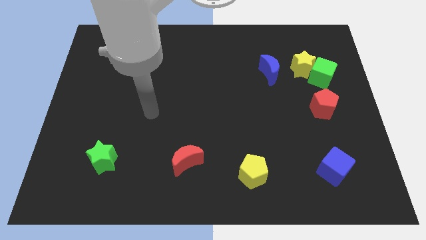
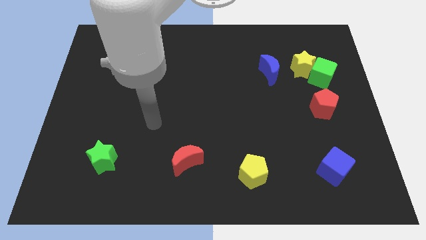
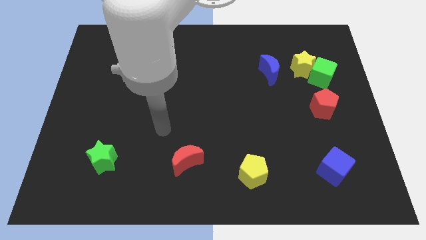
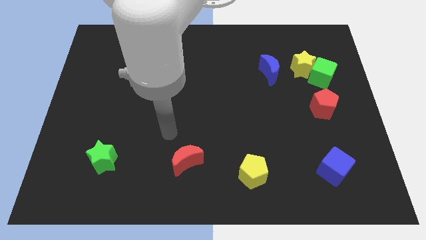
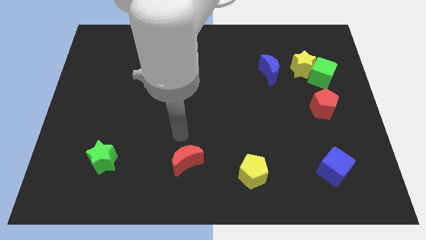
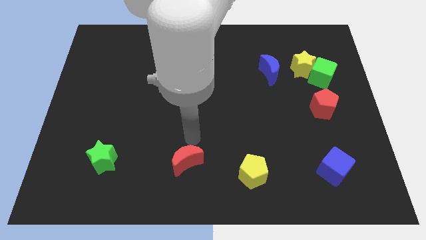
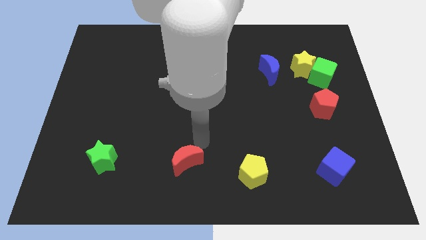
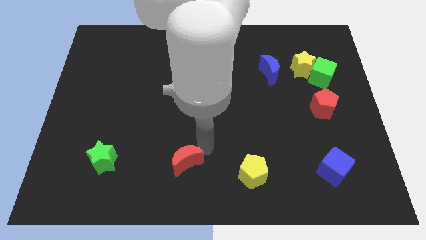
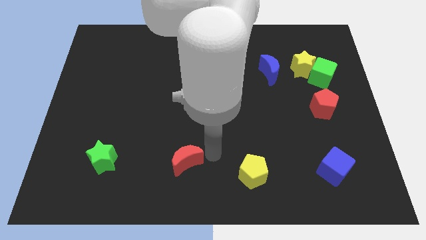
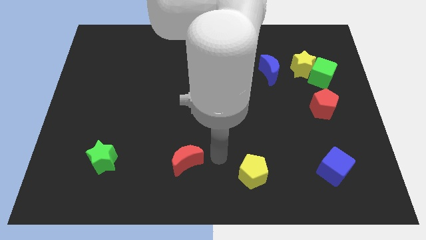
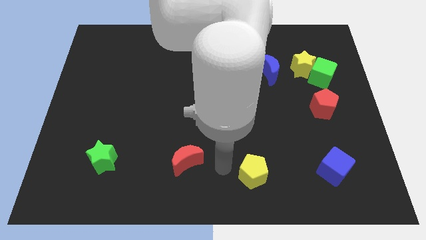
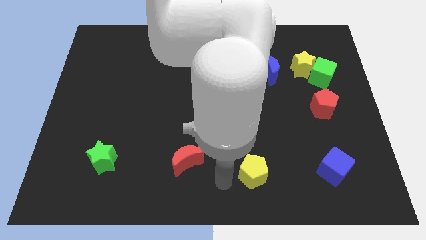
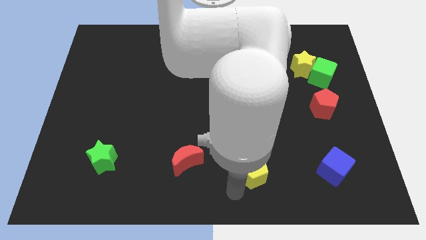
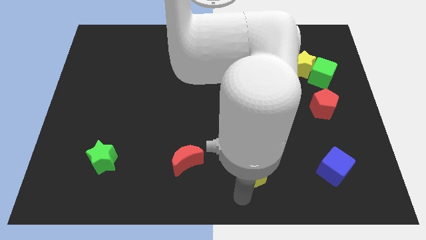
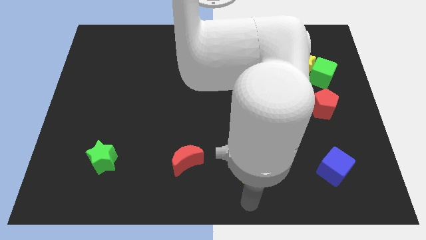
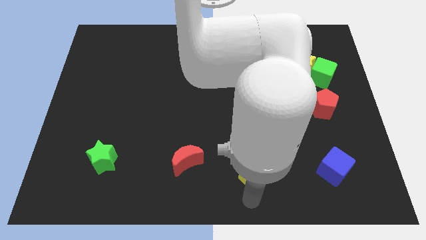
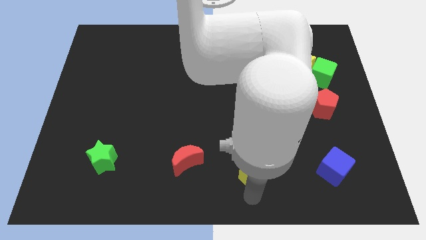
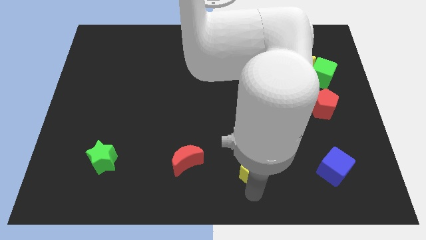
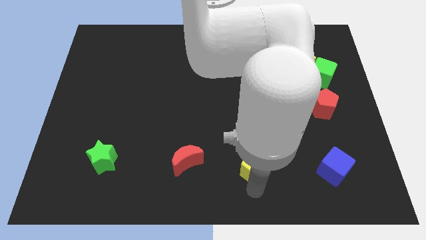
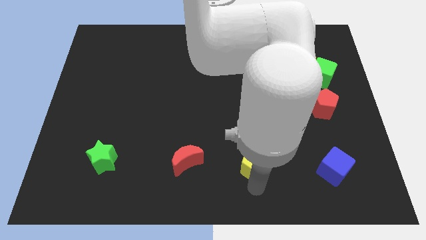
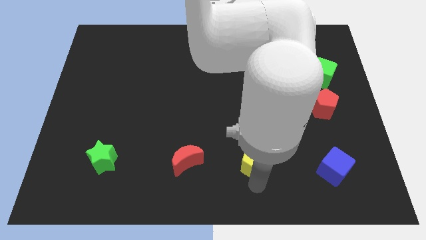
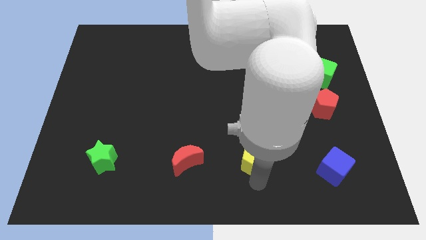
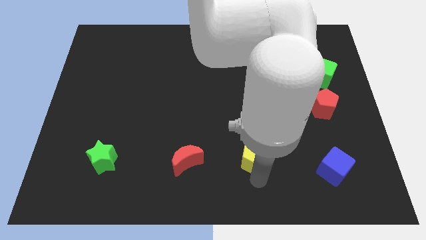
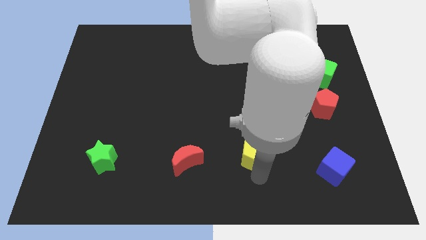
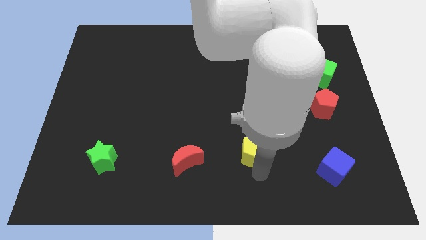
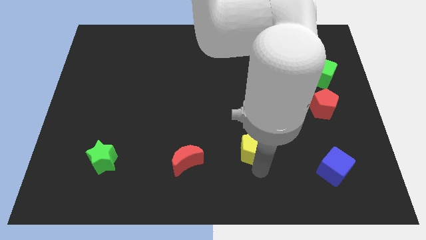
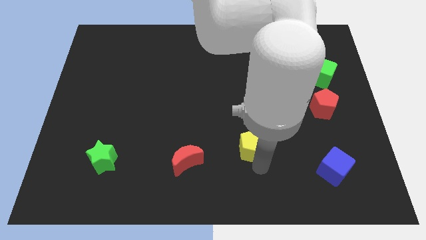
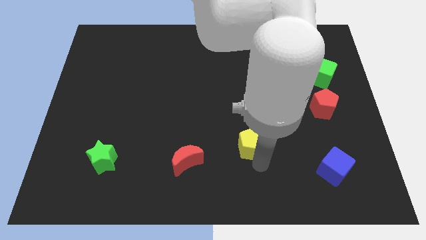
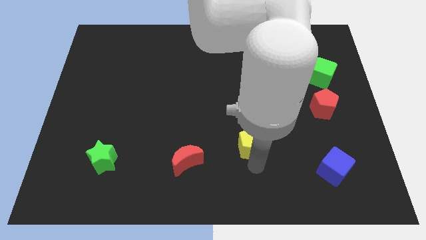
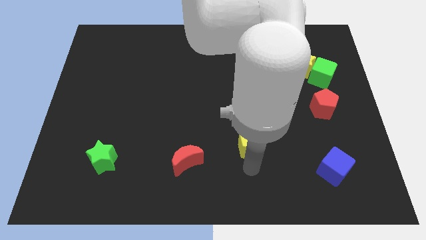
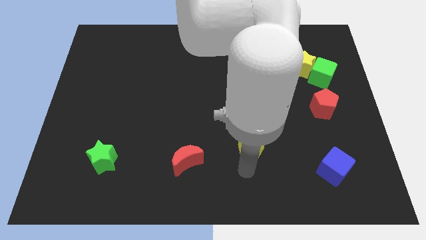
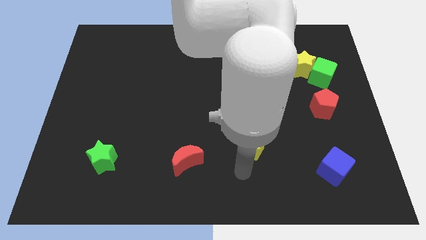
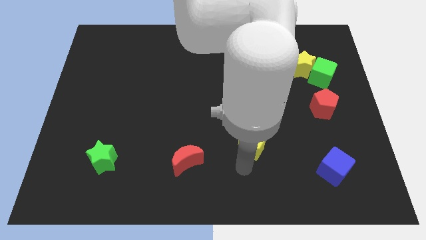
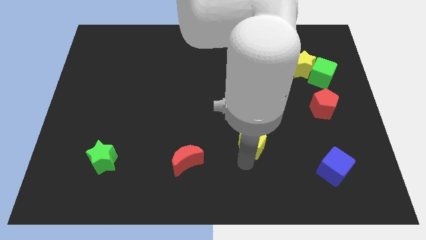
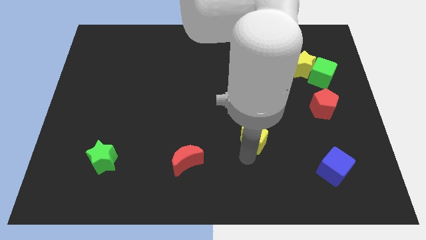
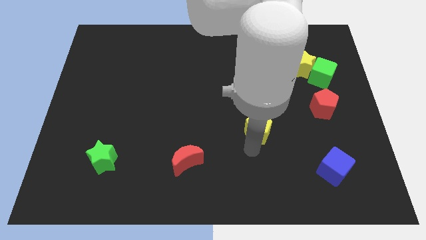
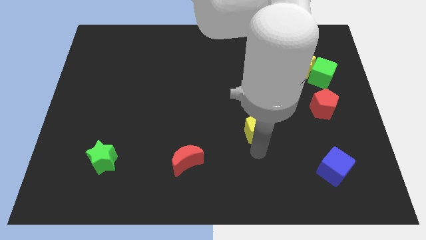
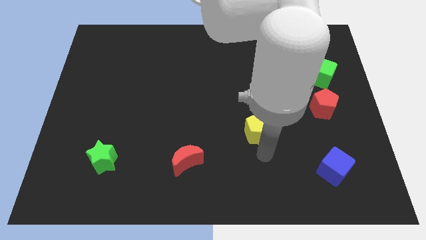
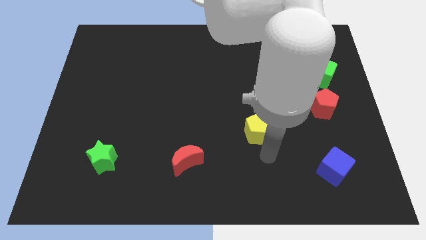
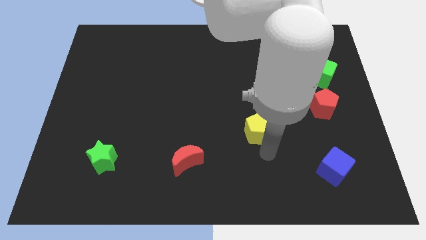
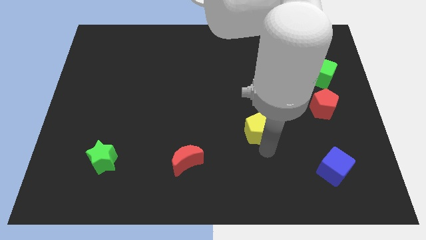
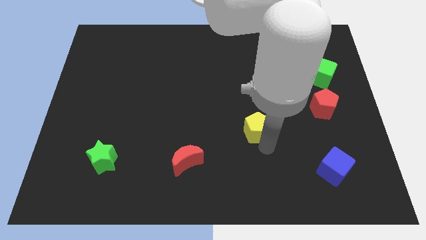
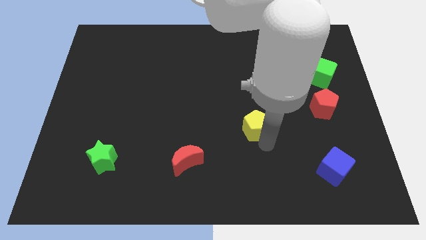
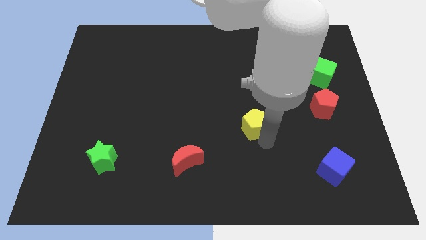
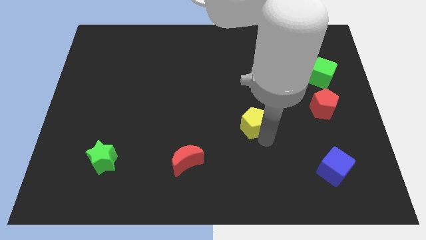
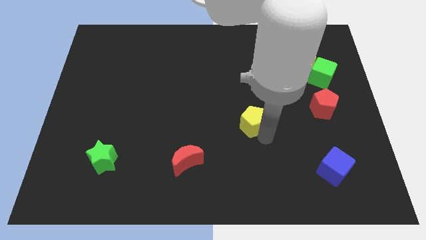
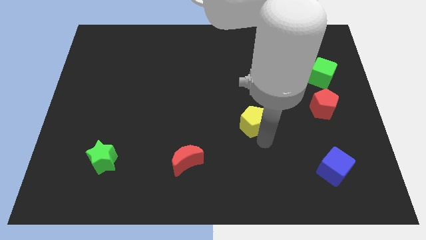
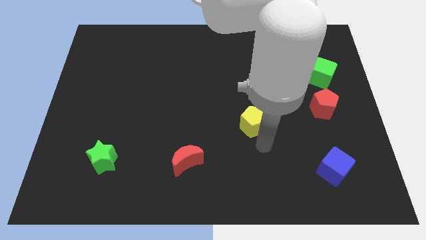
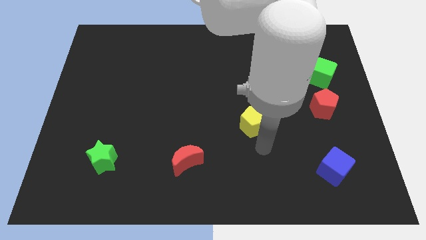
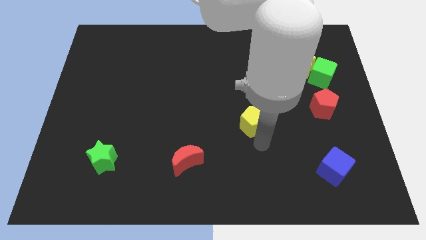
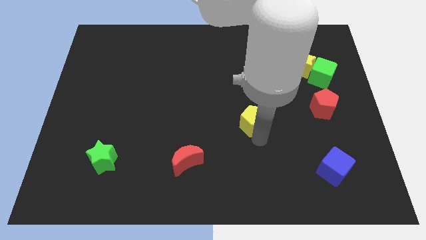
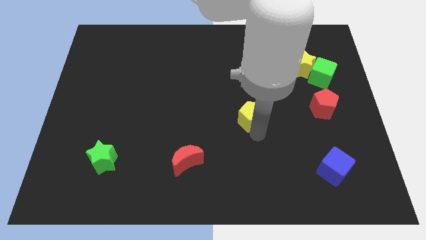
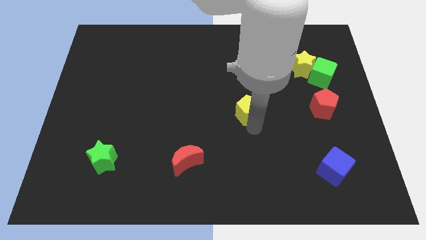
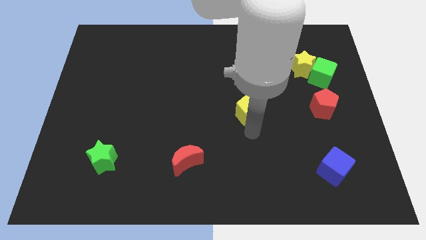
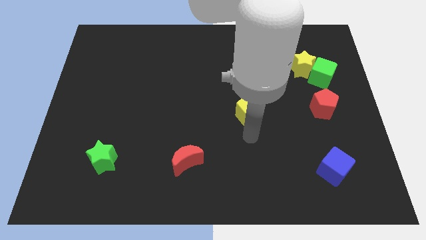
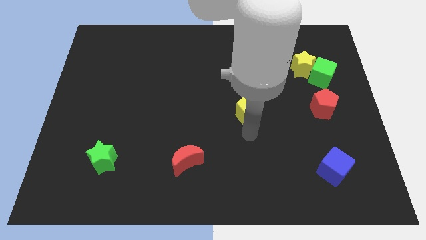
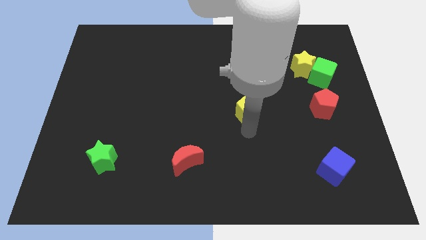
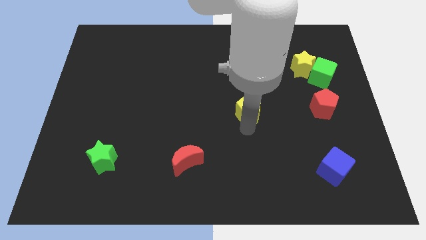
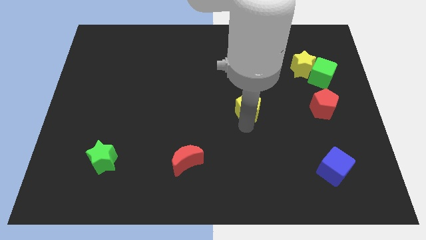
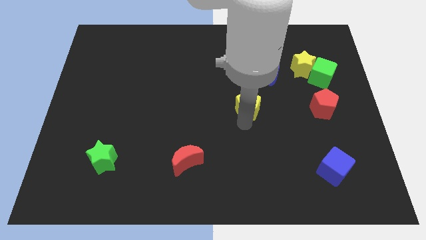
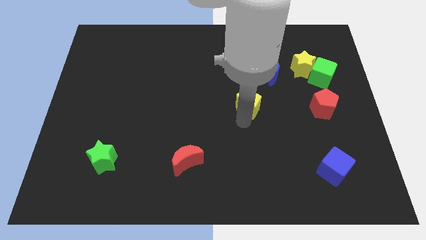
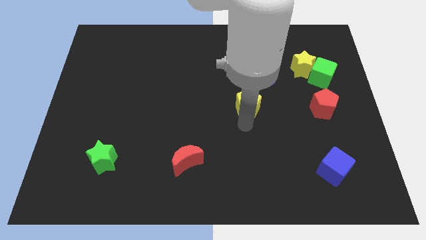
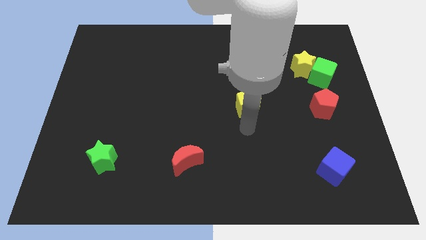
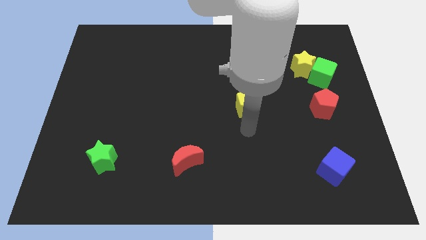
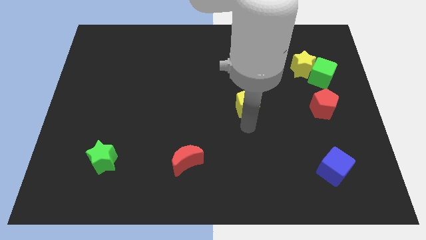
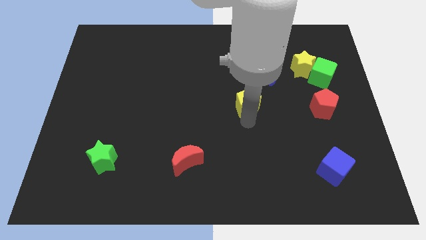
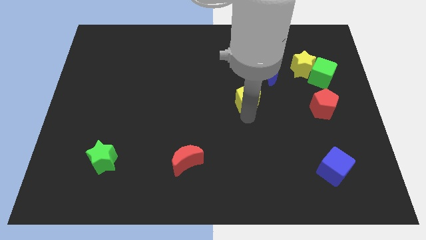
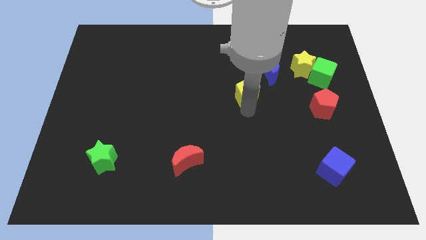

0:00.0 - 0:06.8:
push the yellow pentagon upwards

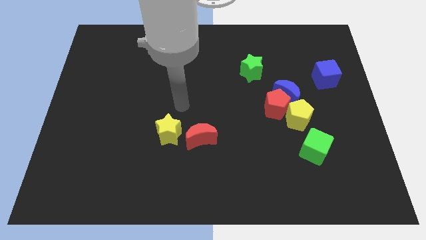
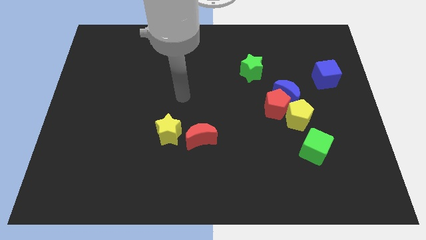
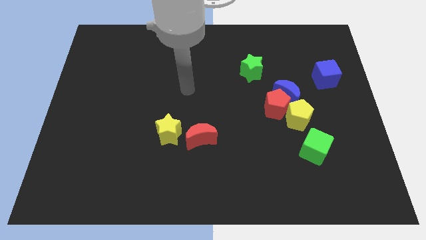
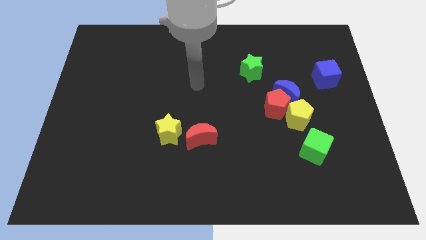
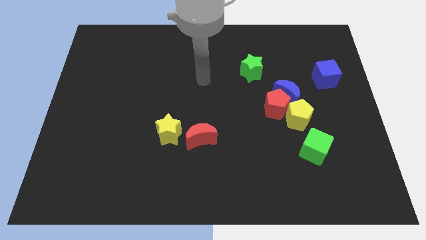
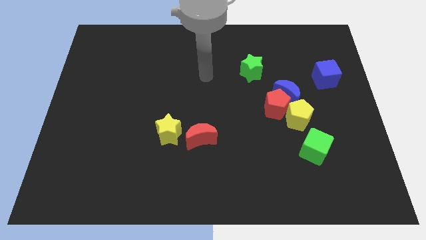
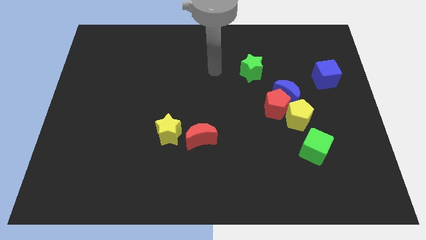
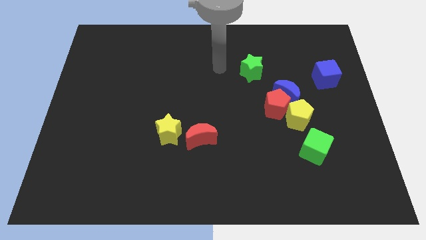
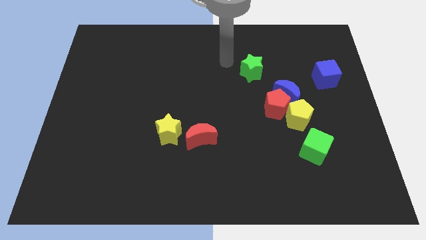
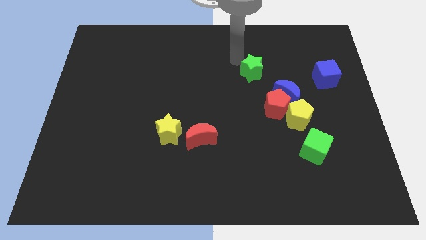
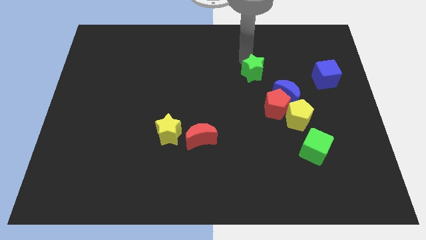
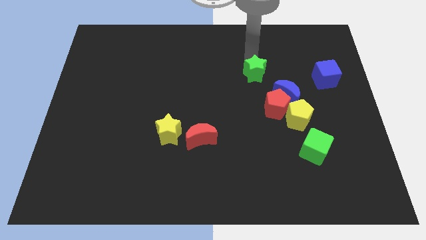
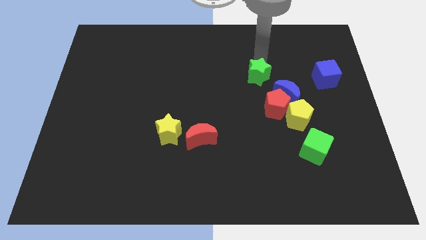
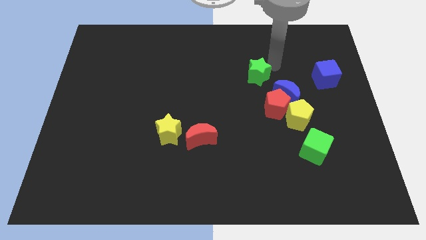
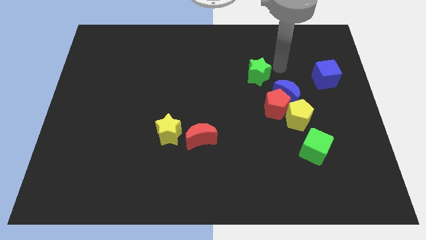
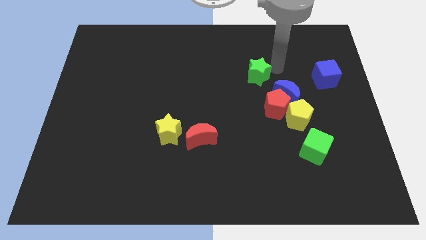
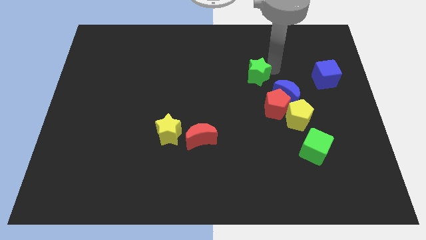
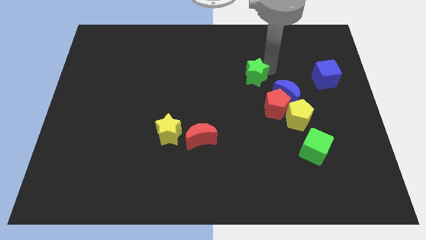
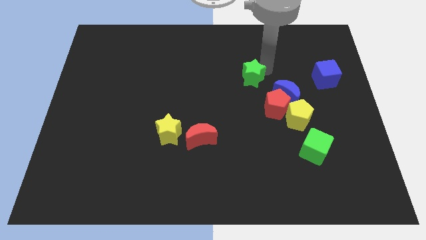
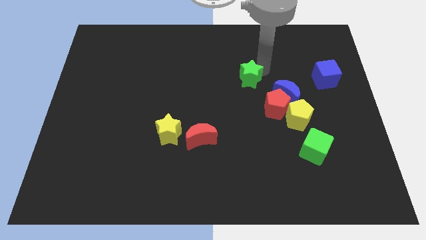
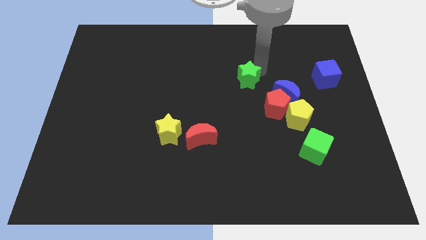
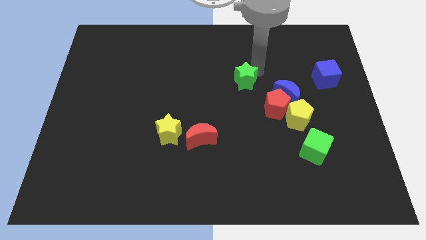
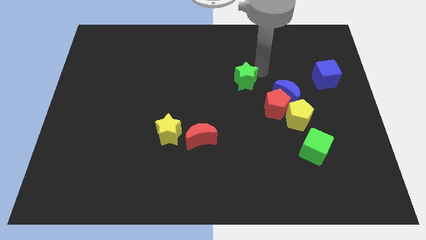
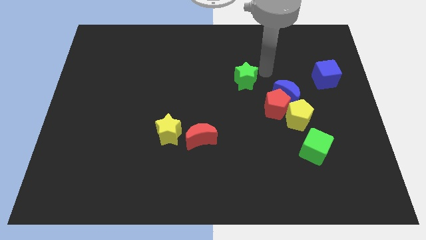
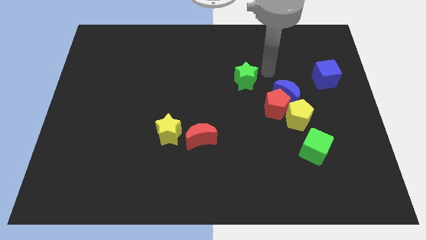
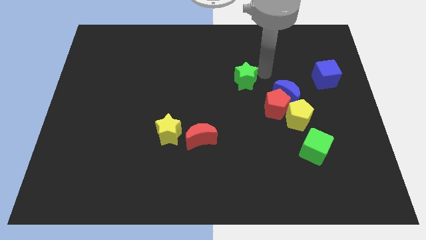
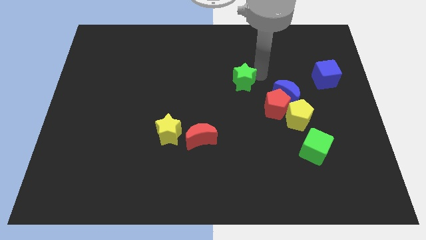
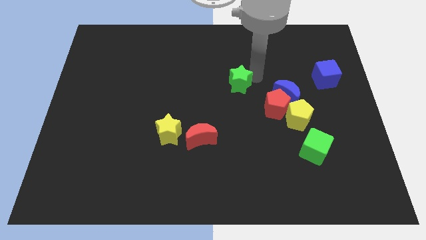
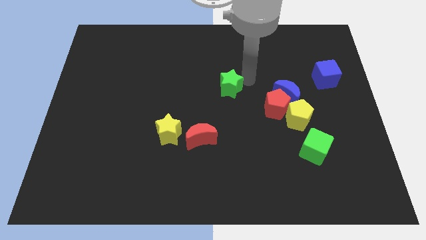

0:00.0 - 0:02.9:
move the green star downwards and to the left slightly
